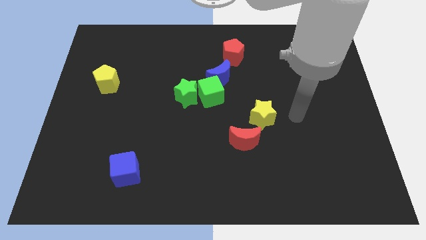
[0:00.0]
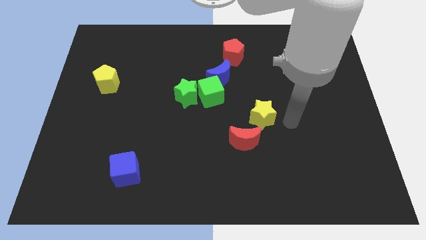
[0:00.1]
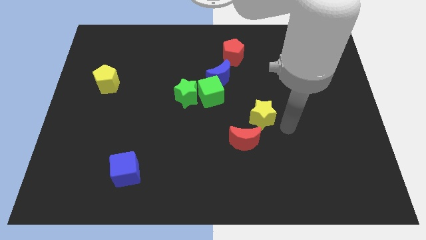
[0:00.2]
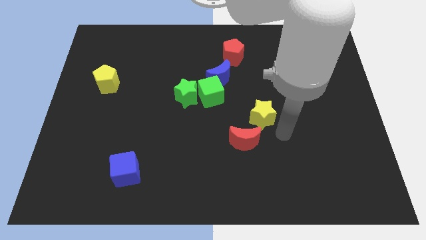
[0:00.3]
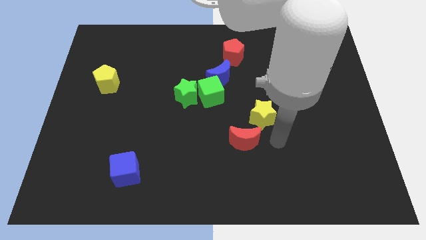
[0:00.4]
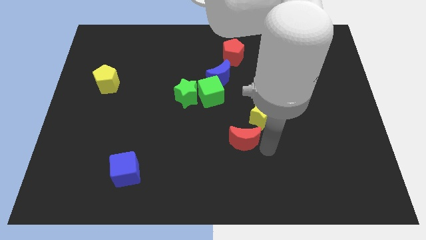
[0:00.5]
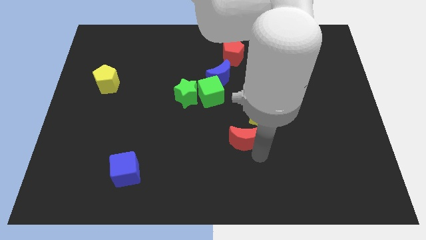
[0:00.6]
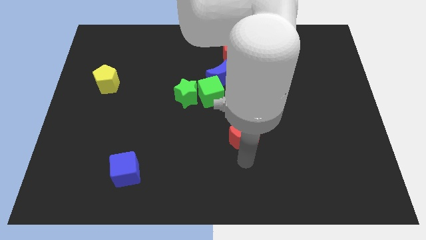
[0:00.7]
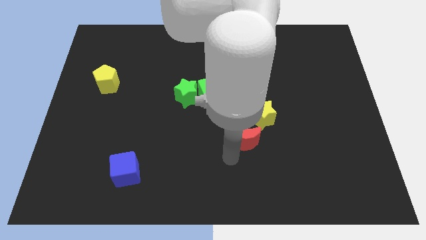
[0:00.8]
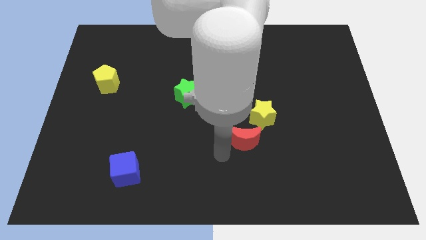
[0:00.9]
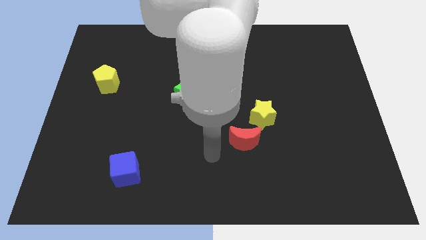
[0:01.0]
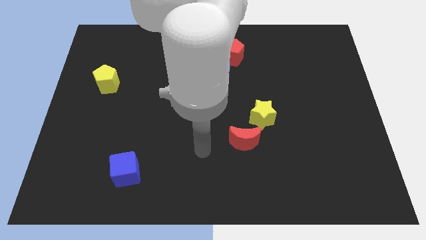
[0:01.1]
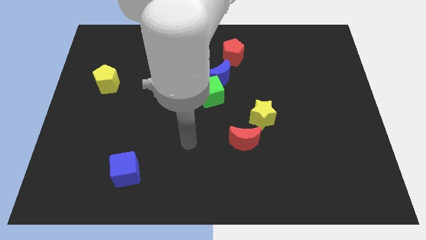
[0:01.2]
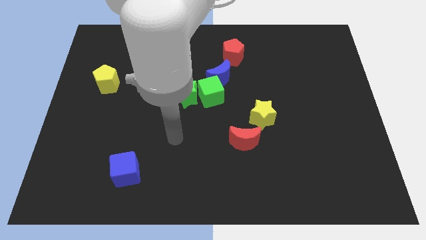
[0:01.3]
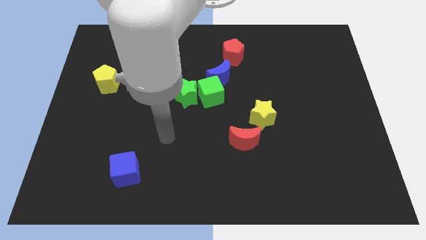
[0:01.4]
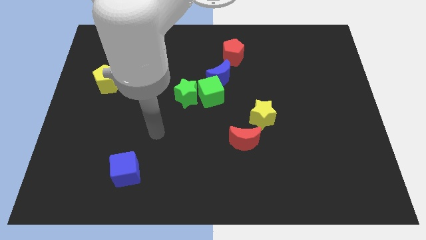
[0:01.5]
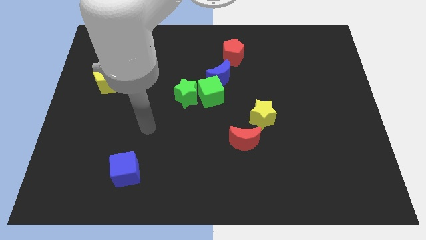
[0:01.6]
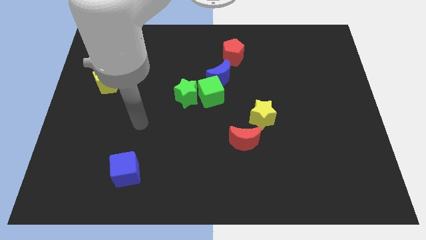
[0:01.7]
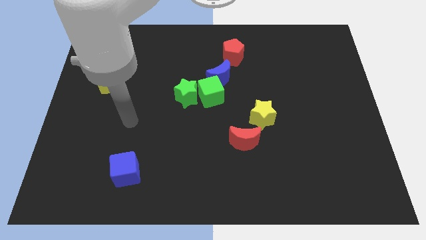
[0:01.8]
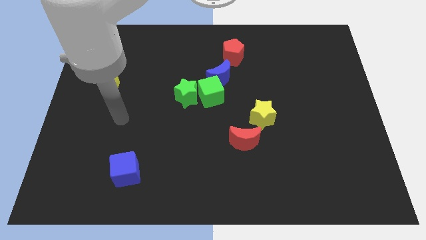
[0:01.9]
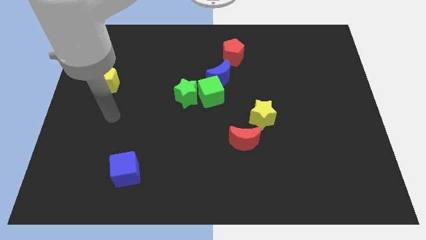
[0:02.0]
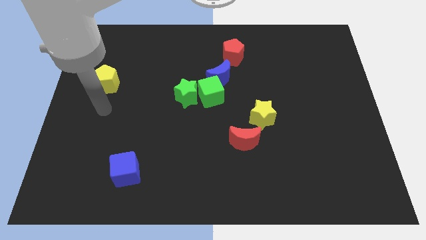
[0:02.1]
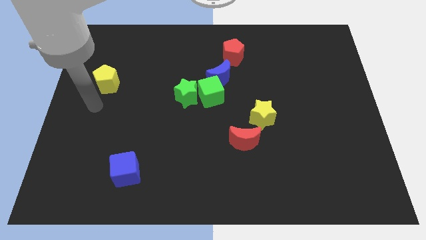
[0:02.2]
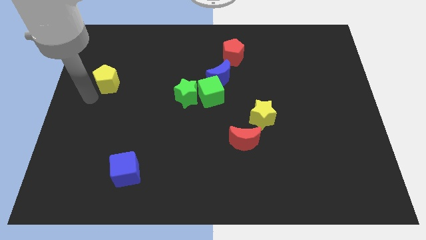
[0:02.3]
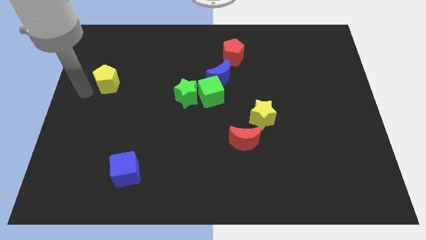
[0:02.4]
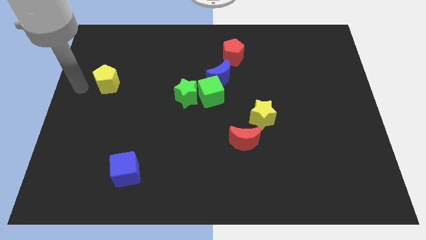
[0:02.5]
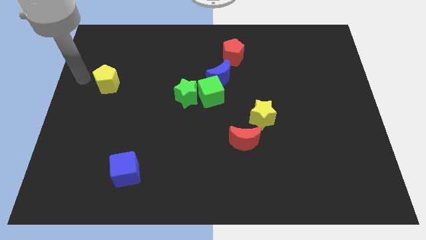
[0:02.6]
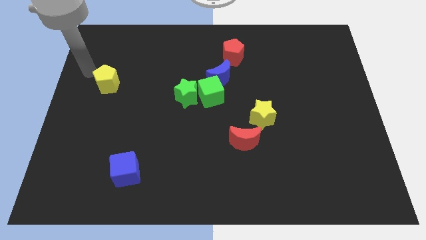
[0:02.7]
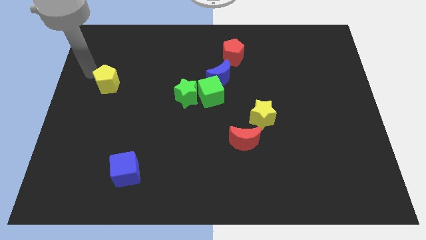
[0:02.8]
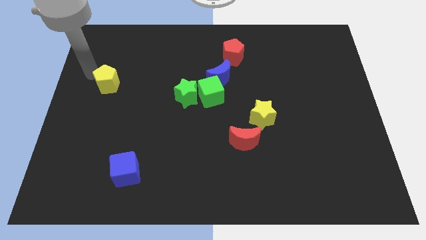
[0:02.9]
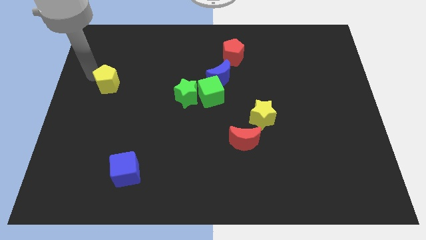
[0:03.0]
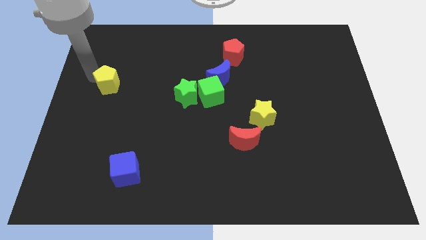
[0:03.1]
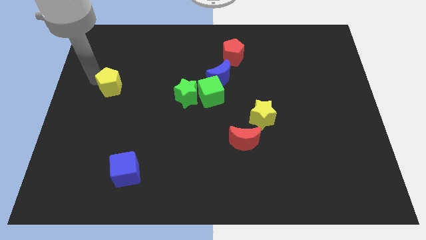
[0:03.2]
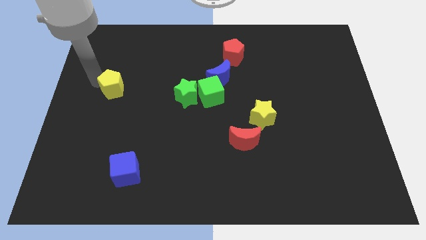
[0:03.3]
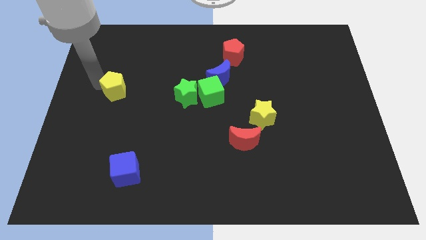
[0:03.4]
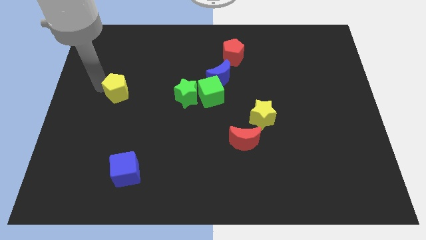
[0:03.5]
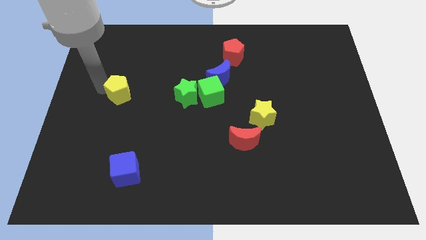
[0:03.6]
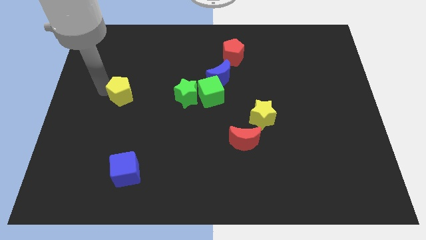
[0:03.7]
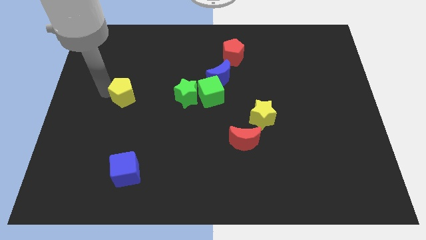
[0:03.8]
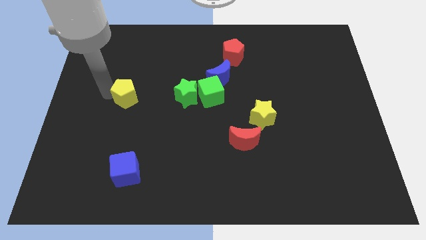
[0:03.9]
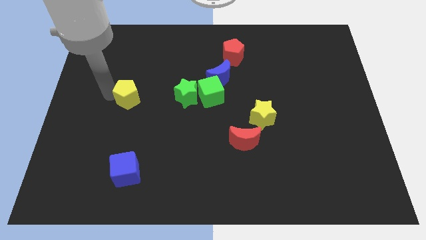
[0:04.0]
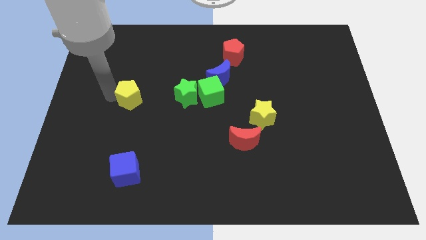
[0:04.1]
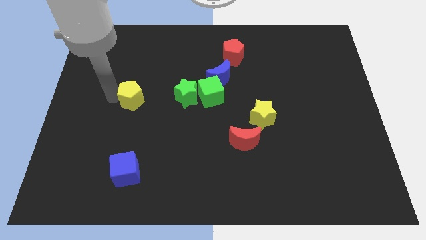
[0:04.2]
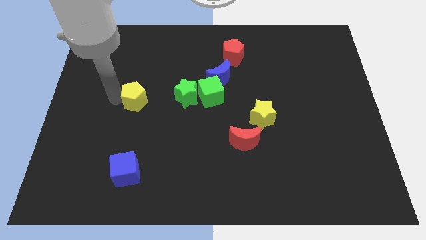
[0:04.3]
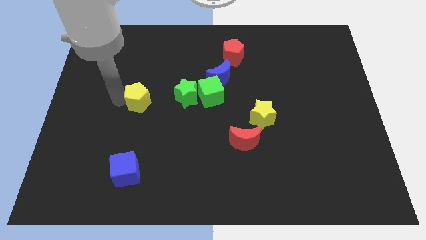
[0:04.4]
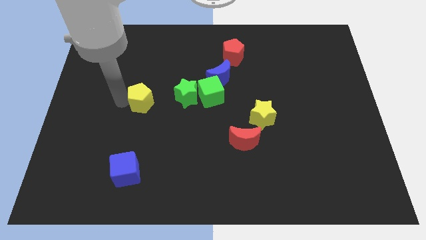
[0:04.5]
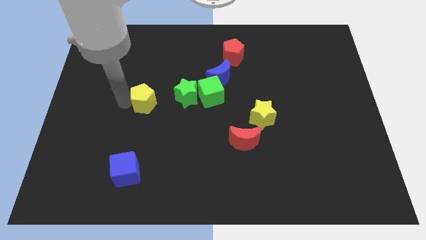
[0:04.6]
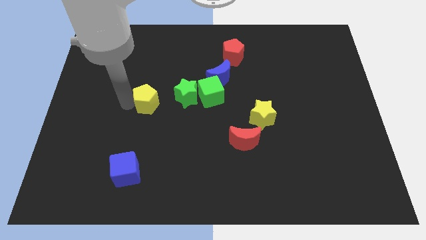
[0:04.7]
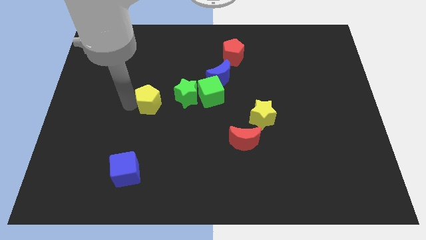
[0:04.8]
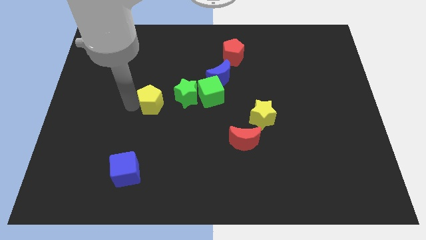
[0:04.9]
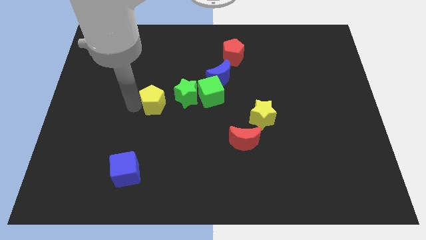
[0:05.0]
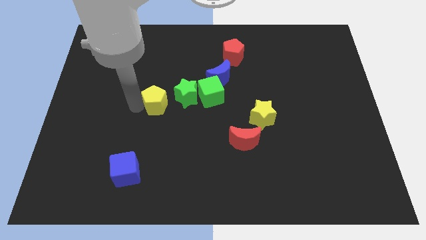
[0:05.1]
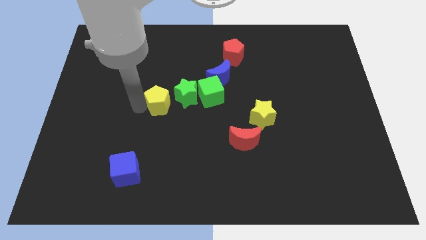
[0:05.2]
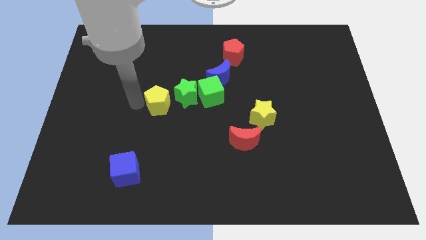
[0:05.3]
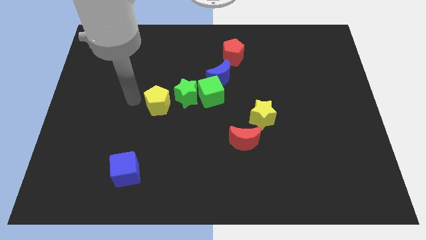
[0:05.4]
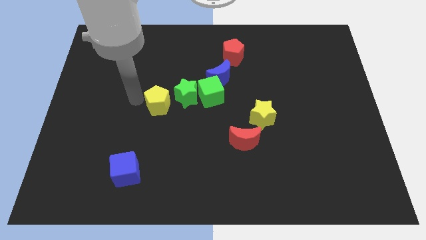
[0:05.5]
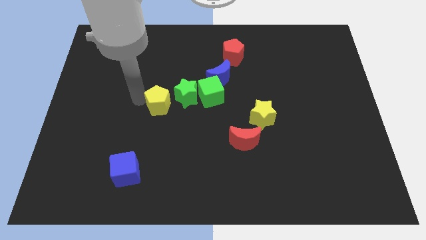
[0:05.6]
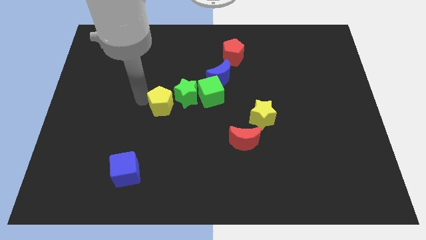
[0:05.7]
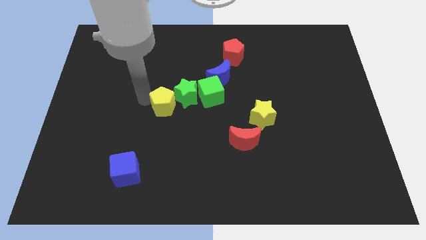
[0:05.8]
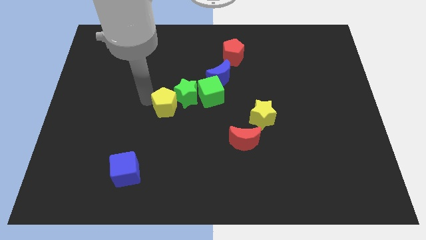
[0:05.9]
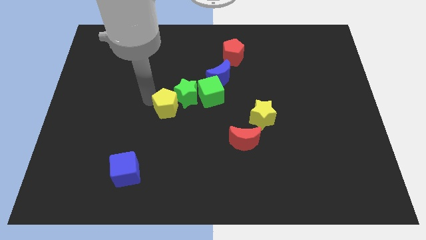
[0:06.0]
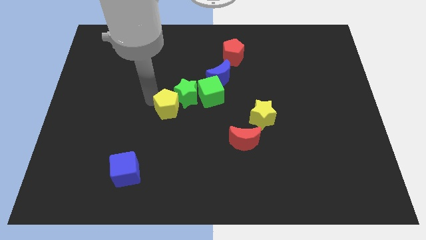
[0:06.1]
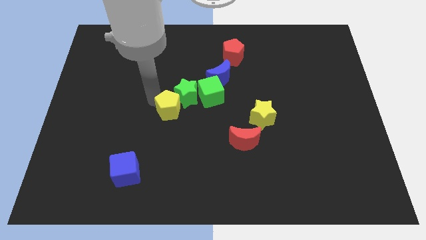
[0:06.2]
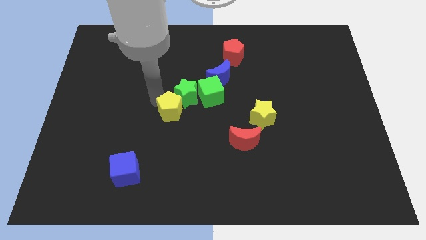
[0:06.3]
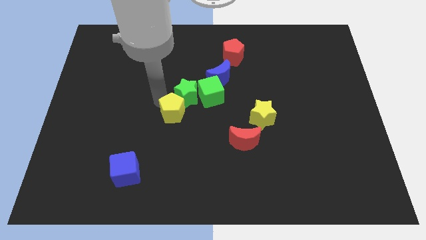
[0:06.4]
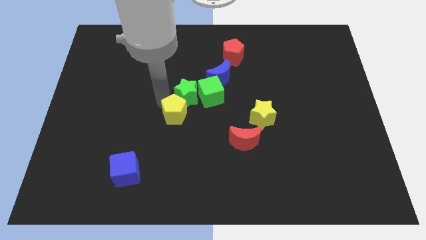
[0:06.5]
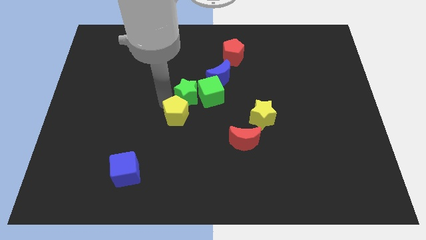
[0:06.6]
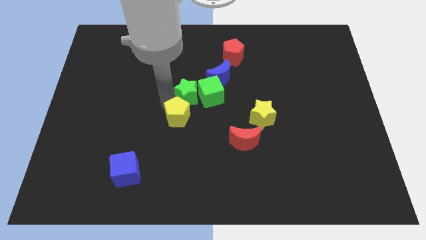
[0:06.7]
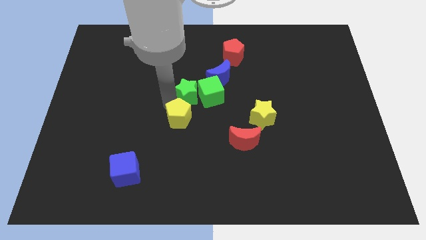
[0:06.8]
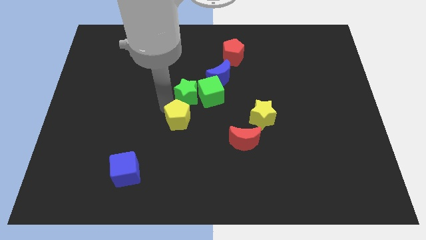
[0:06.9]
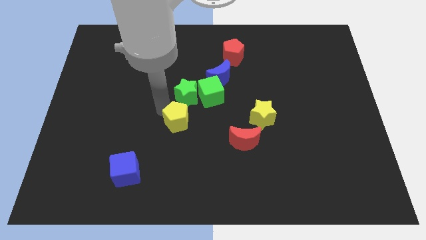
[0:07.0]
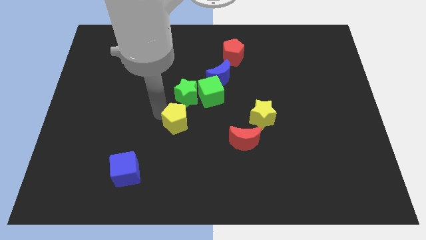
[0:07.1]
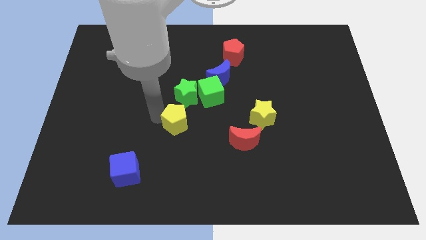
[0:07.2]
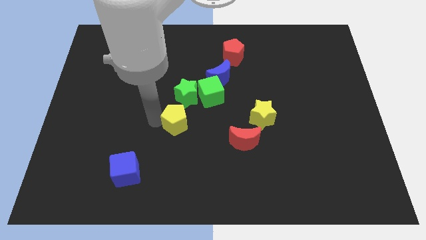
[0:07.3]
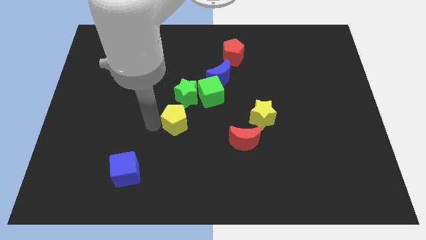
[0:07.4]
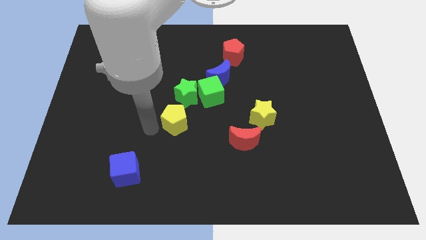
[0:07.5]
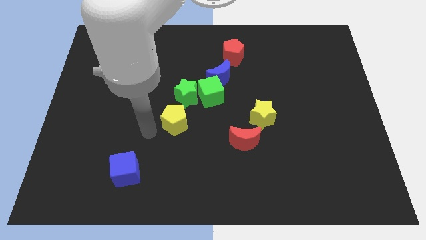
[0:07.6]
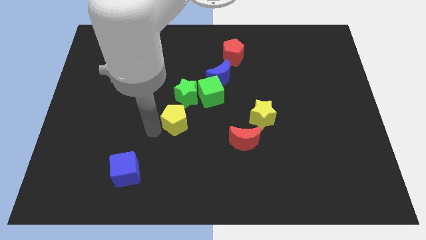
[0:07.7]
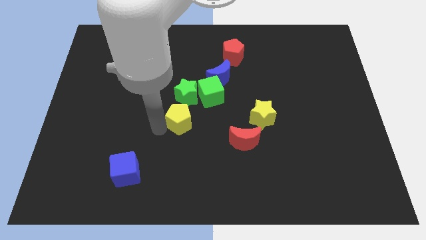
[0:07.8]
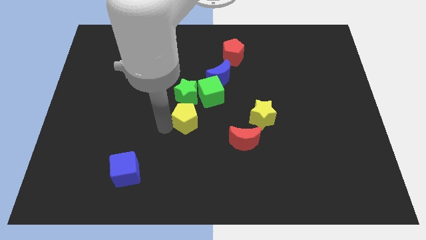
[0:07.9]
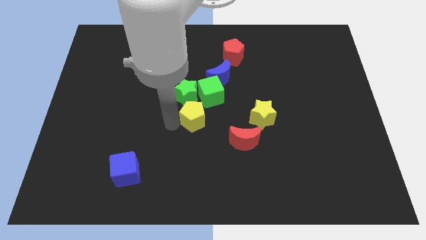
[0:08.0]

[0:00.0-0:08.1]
move the yellow pentagon below the green cube
